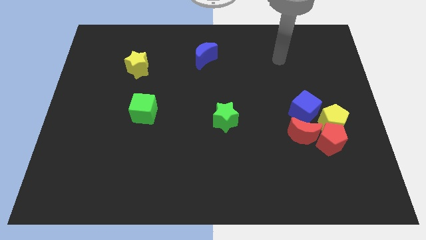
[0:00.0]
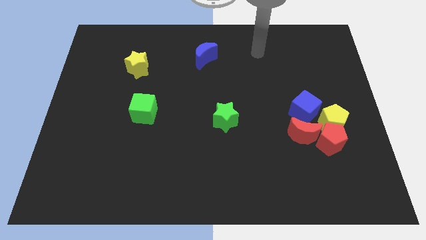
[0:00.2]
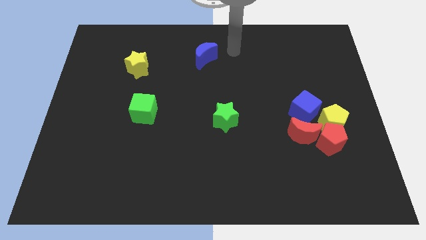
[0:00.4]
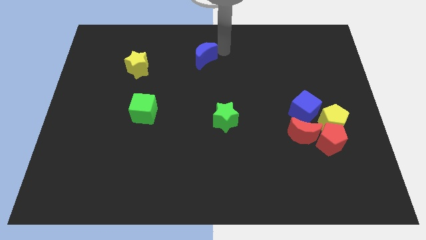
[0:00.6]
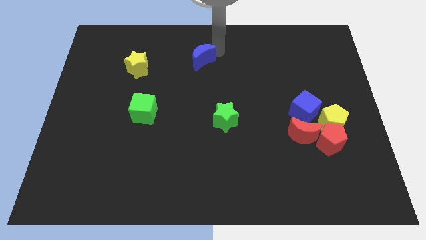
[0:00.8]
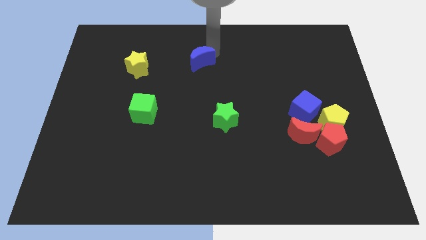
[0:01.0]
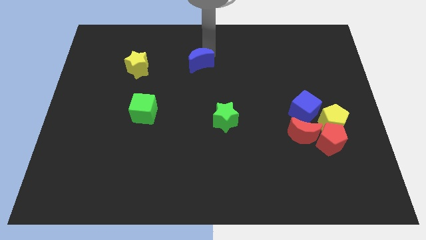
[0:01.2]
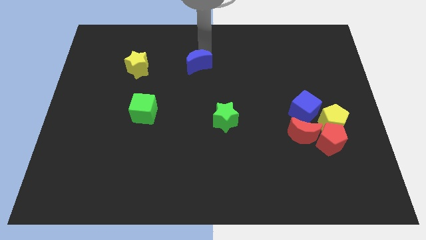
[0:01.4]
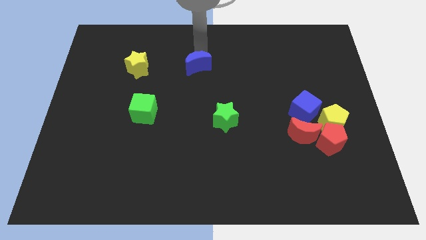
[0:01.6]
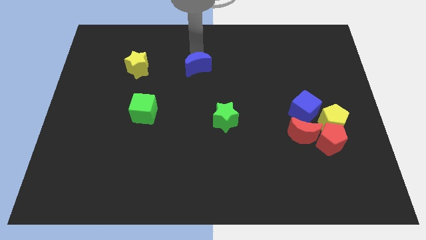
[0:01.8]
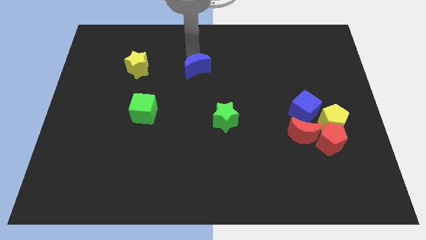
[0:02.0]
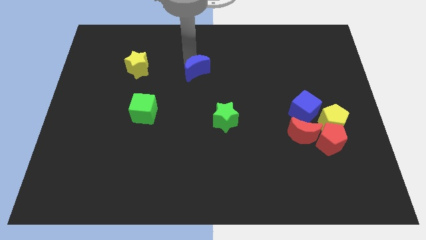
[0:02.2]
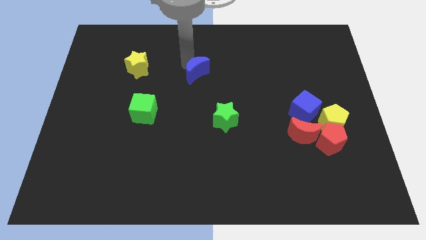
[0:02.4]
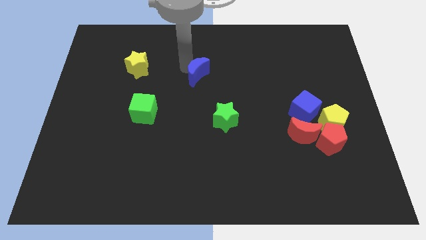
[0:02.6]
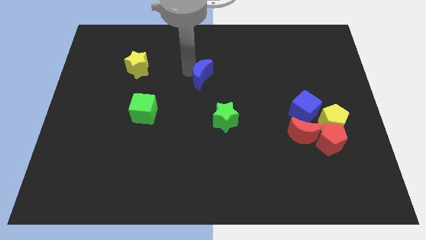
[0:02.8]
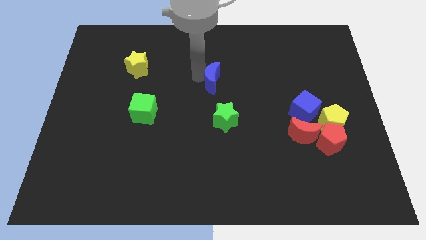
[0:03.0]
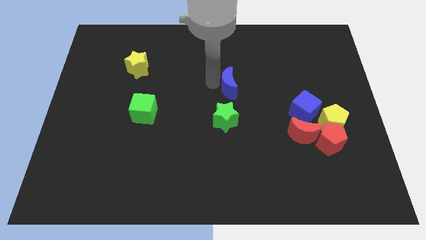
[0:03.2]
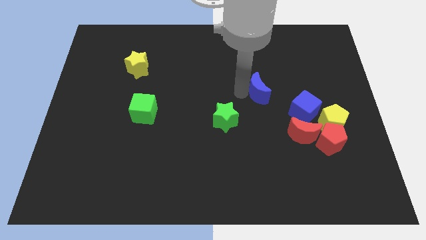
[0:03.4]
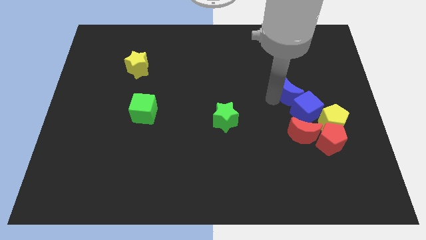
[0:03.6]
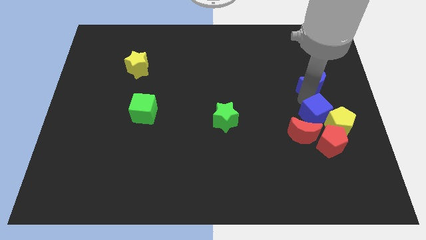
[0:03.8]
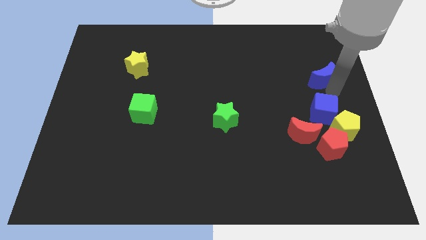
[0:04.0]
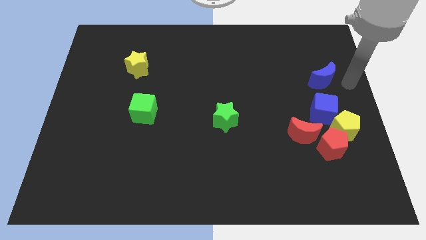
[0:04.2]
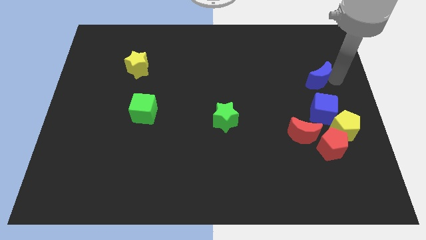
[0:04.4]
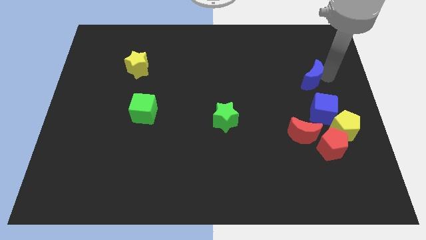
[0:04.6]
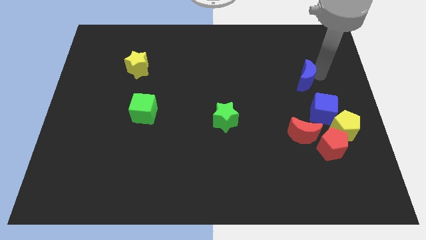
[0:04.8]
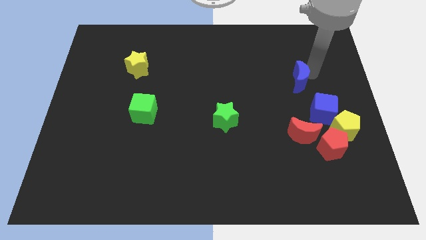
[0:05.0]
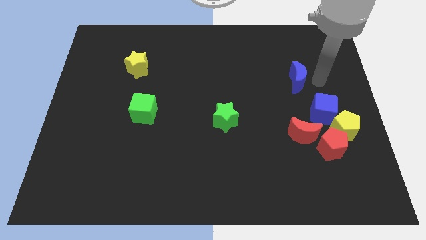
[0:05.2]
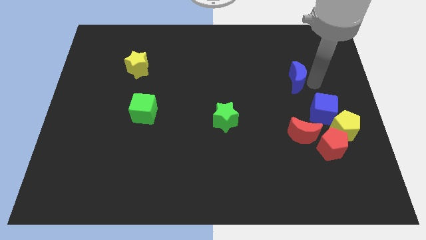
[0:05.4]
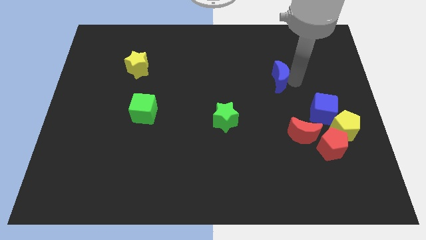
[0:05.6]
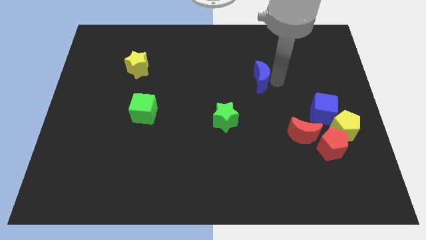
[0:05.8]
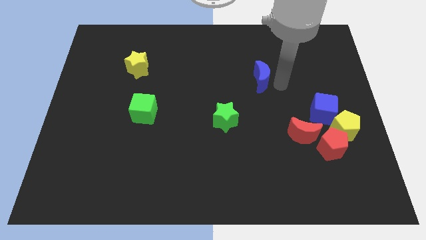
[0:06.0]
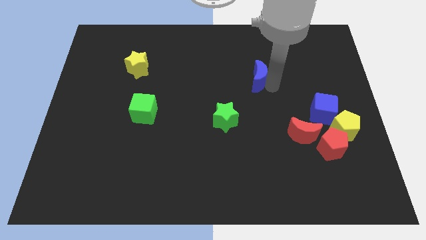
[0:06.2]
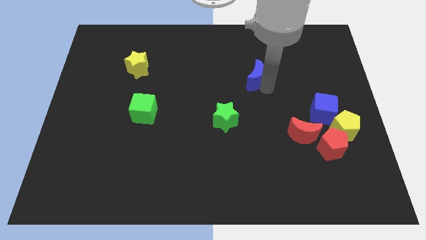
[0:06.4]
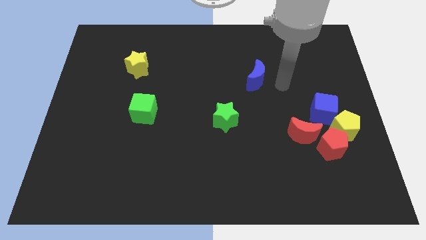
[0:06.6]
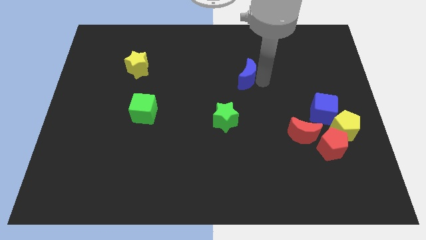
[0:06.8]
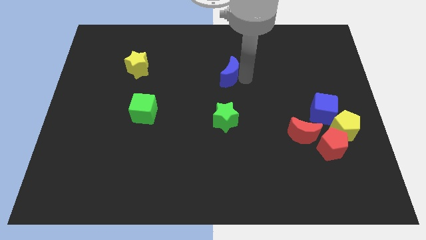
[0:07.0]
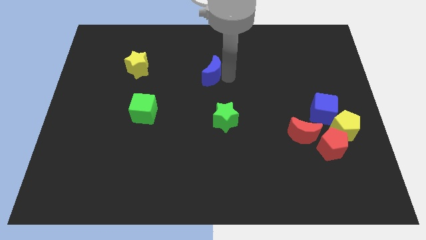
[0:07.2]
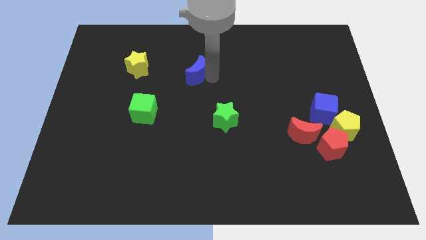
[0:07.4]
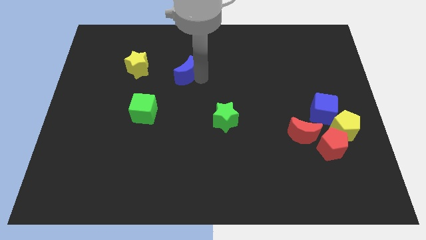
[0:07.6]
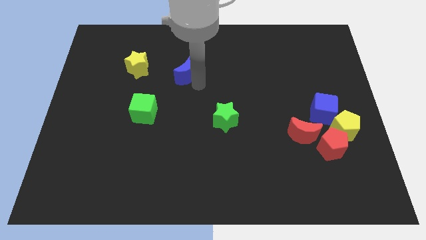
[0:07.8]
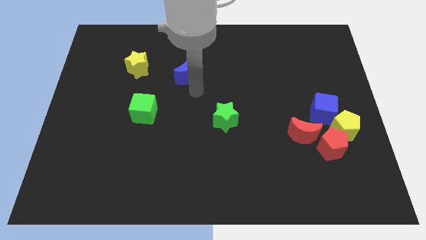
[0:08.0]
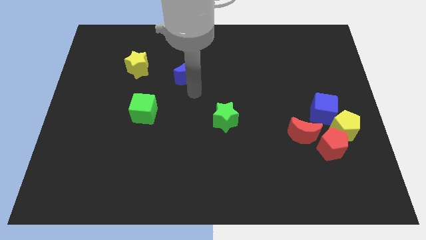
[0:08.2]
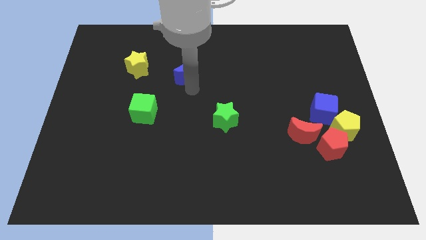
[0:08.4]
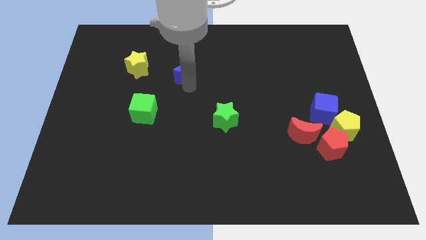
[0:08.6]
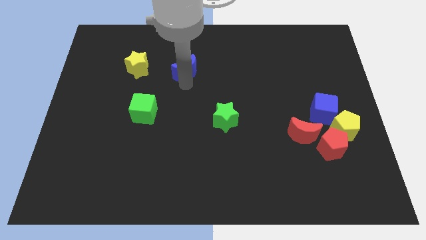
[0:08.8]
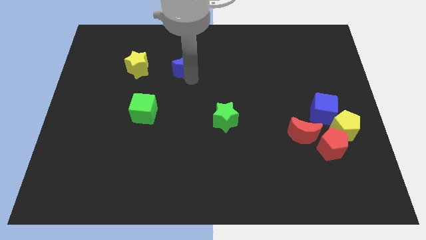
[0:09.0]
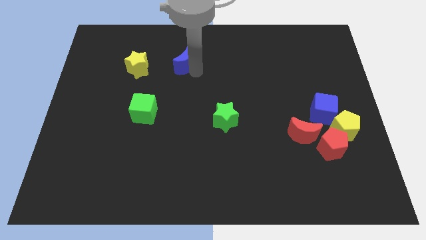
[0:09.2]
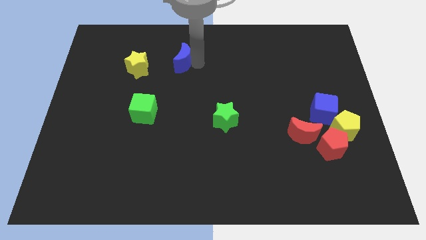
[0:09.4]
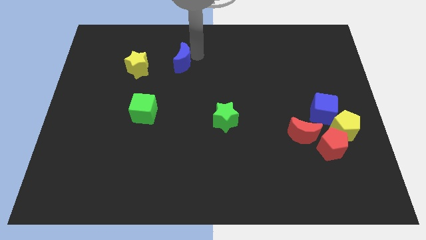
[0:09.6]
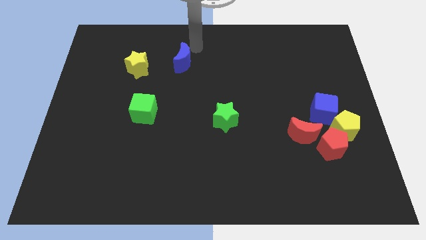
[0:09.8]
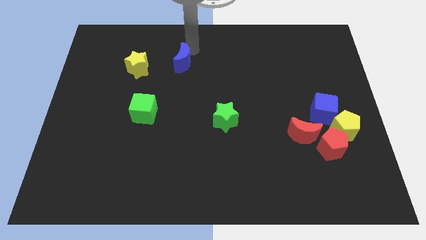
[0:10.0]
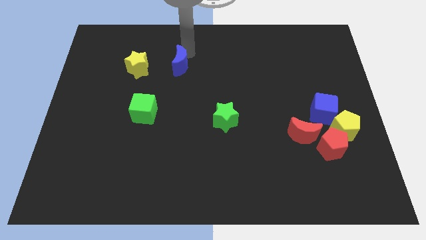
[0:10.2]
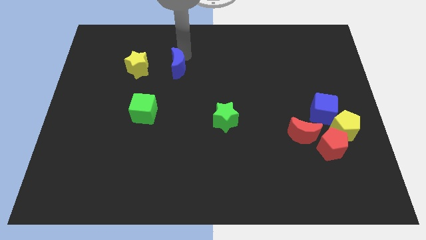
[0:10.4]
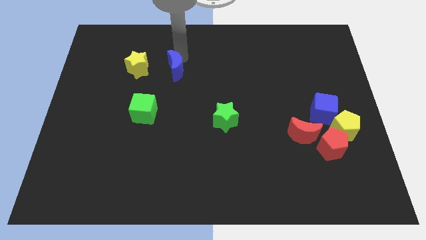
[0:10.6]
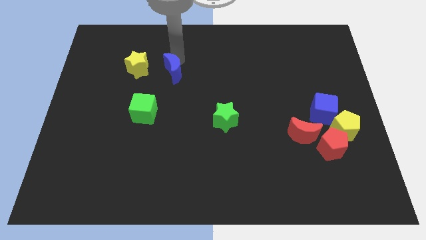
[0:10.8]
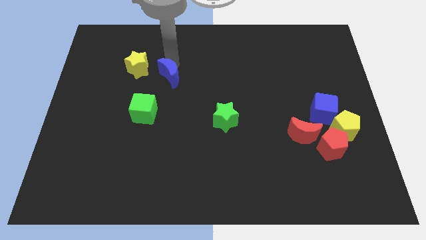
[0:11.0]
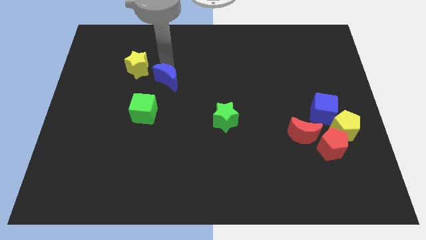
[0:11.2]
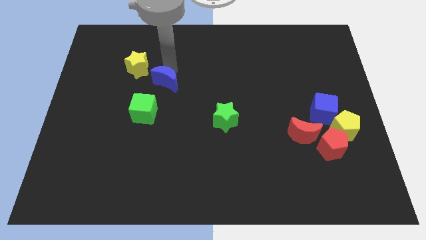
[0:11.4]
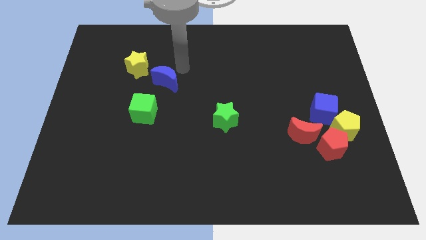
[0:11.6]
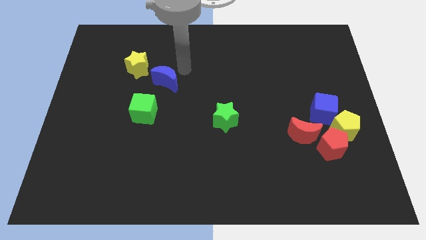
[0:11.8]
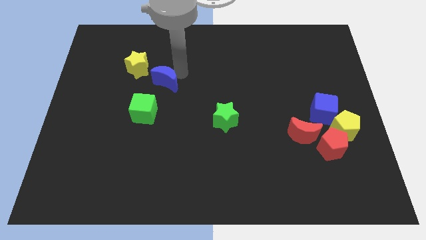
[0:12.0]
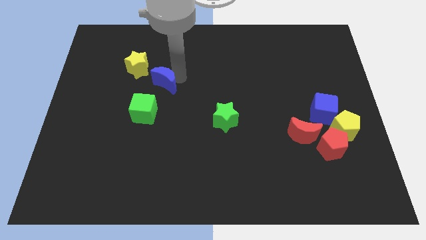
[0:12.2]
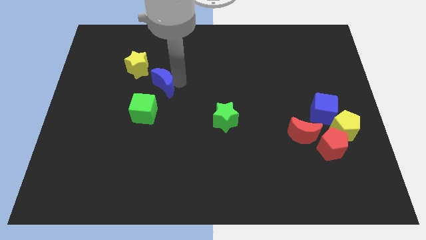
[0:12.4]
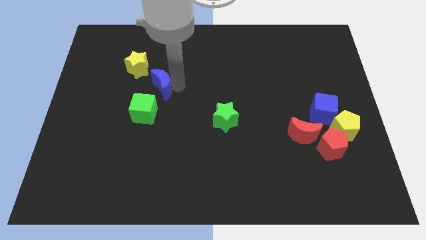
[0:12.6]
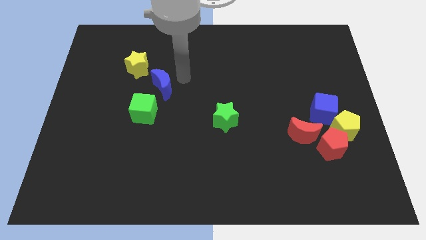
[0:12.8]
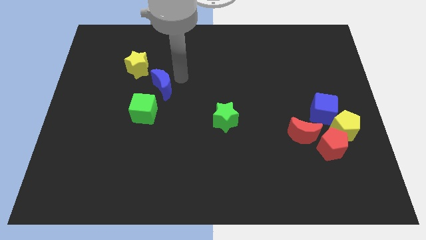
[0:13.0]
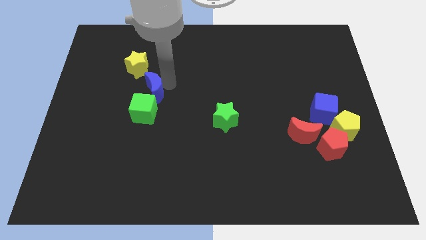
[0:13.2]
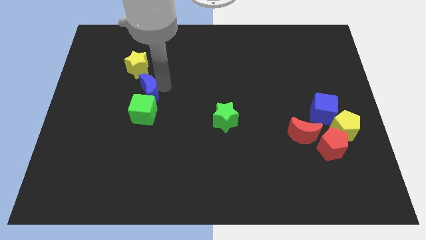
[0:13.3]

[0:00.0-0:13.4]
slide the blue moon next to the green cube

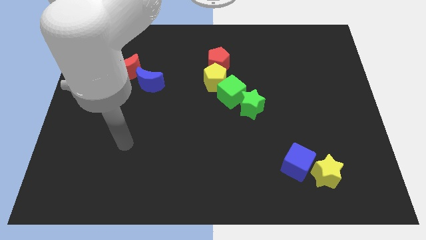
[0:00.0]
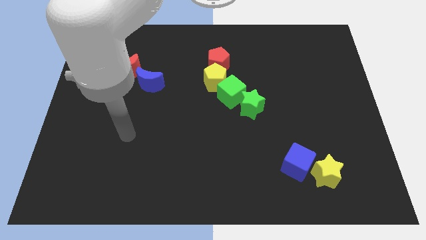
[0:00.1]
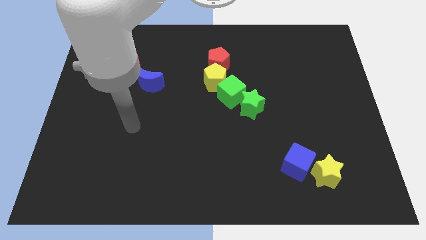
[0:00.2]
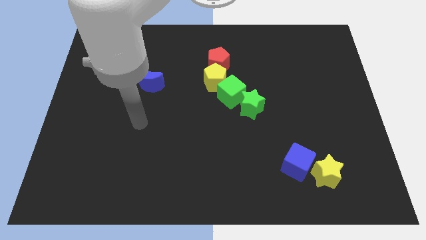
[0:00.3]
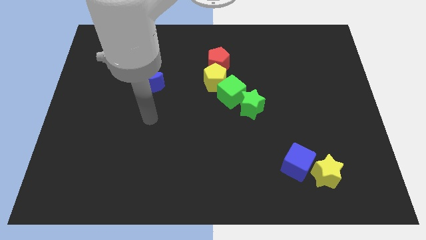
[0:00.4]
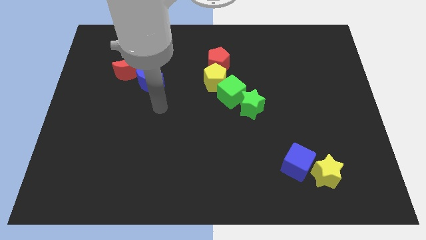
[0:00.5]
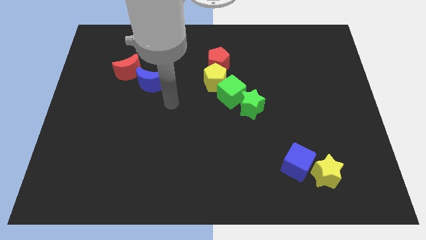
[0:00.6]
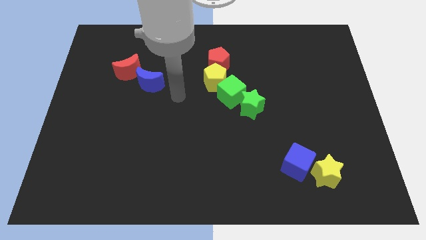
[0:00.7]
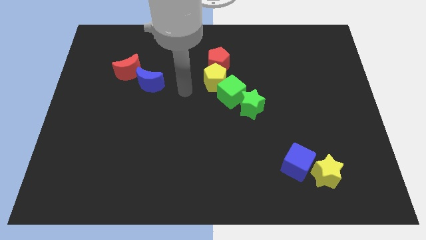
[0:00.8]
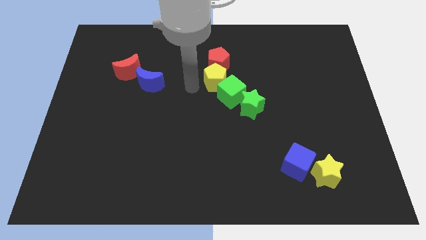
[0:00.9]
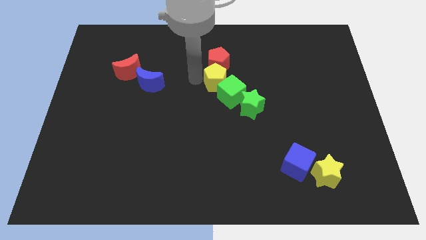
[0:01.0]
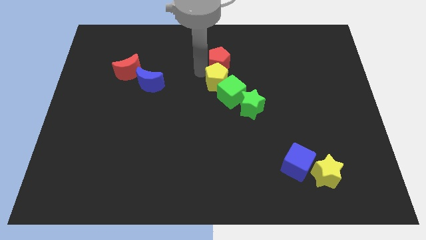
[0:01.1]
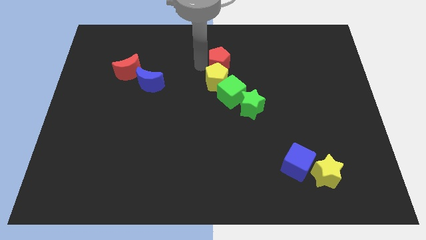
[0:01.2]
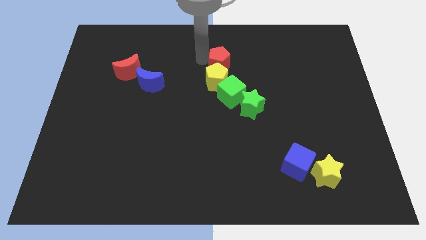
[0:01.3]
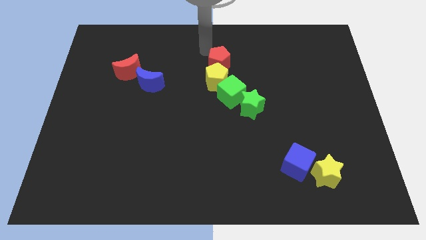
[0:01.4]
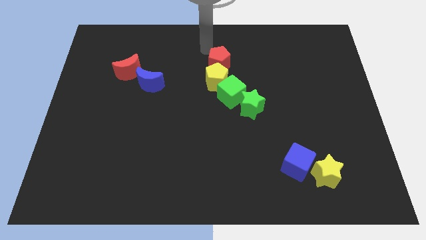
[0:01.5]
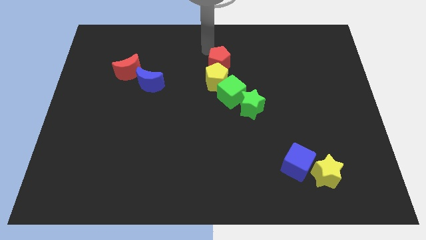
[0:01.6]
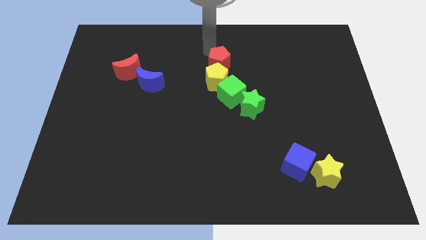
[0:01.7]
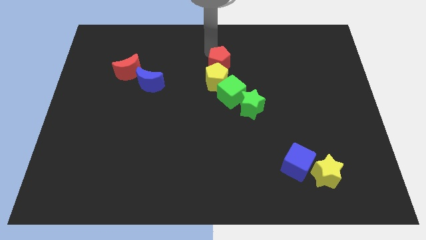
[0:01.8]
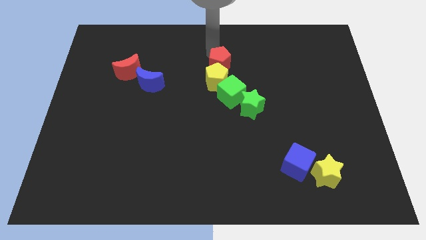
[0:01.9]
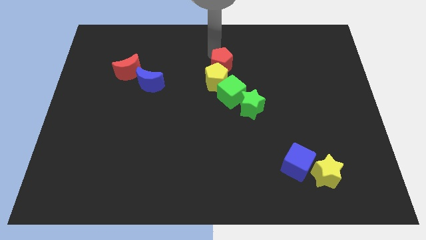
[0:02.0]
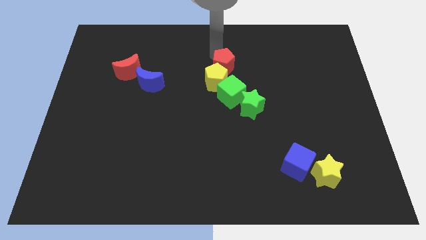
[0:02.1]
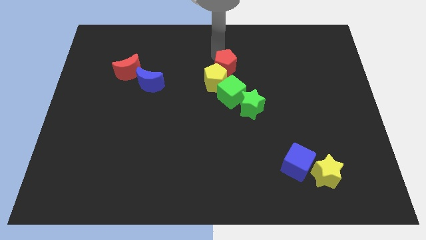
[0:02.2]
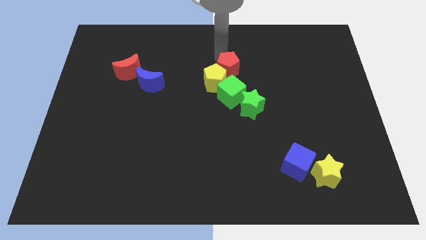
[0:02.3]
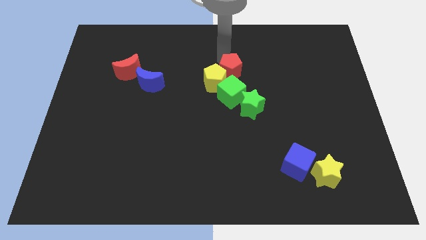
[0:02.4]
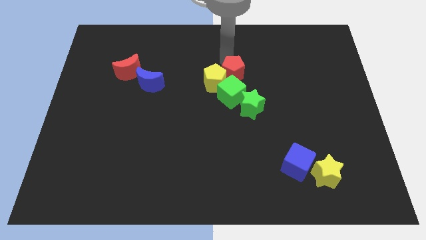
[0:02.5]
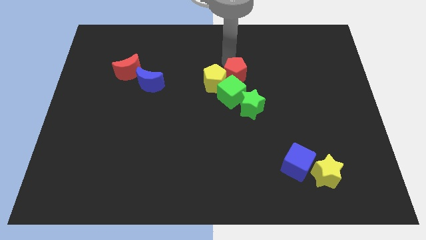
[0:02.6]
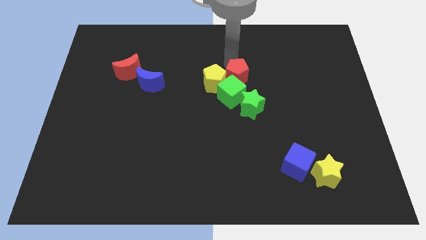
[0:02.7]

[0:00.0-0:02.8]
push the red pentagon close to the green cube
